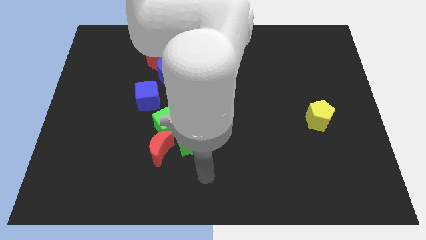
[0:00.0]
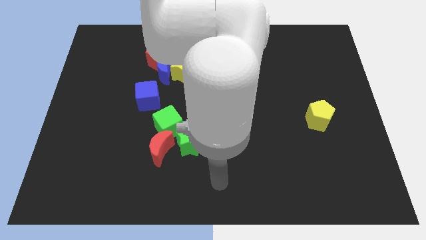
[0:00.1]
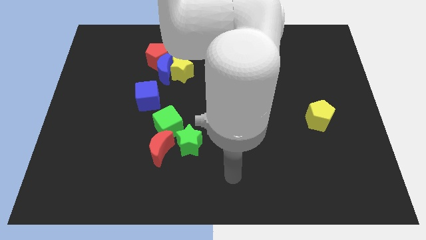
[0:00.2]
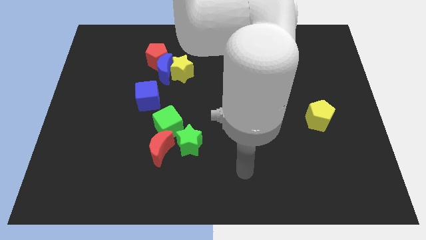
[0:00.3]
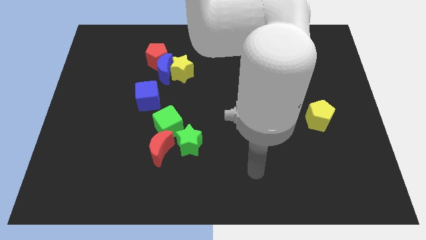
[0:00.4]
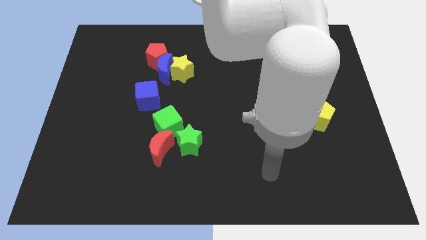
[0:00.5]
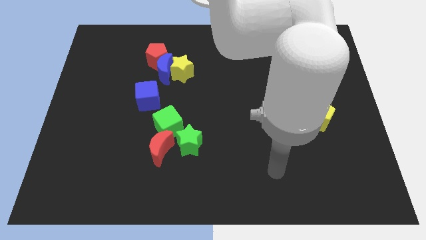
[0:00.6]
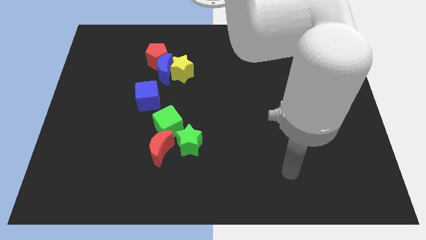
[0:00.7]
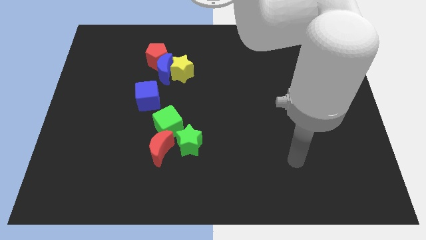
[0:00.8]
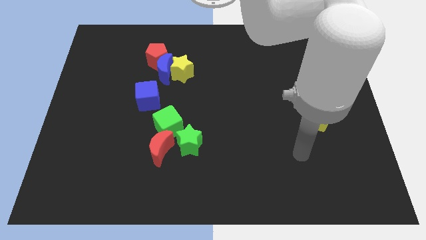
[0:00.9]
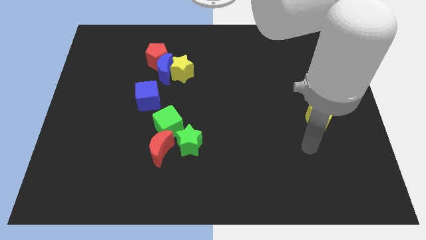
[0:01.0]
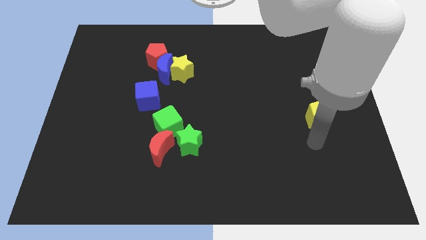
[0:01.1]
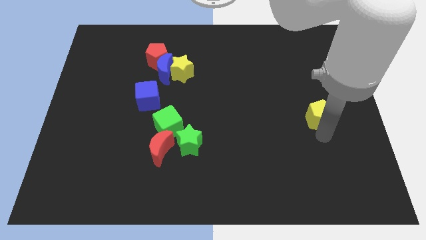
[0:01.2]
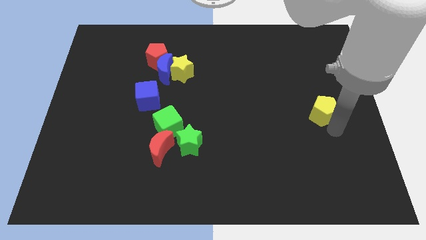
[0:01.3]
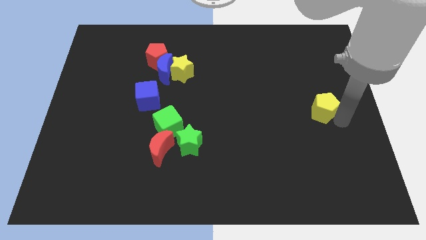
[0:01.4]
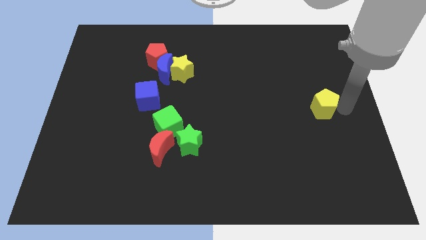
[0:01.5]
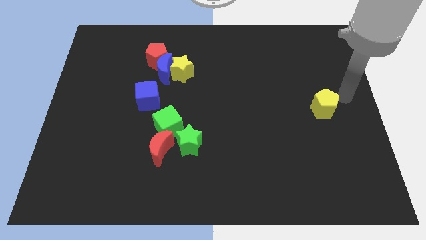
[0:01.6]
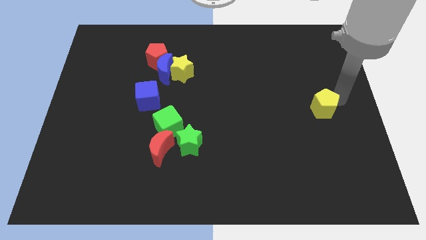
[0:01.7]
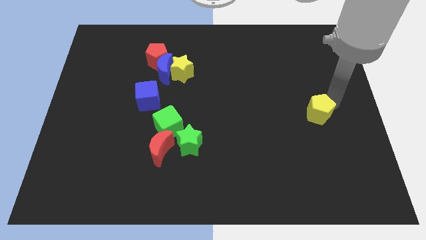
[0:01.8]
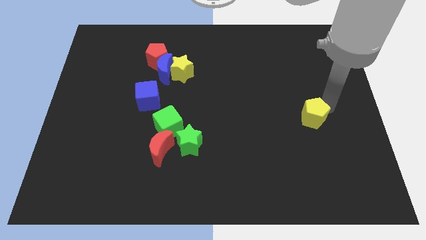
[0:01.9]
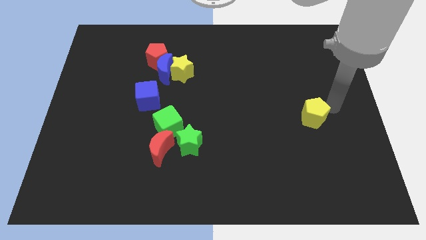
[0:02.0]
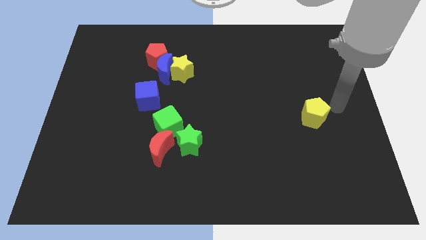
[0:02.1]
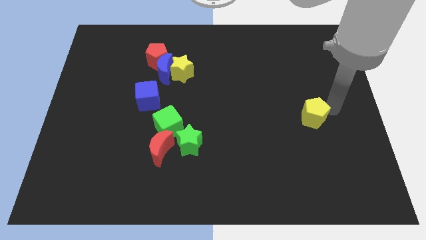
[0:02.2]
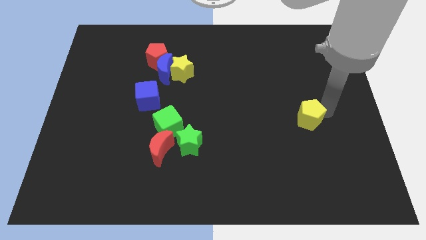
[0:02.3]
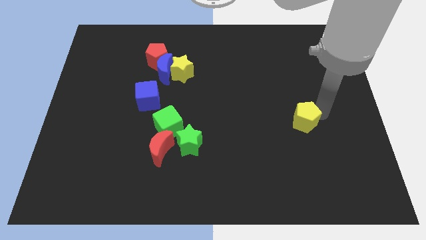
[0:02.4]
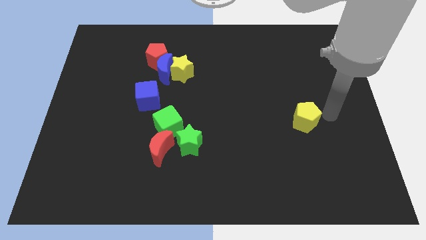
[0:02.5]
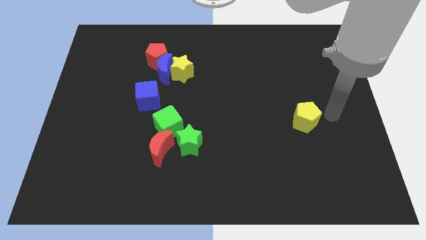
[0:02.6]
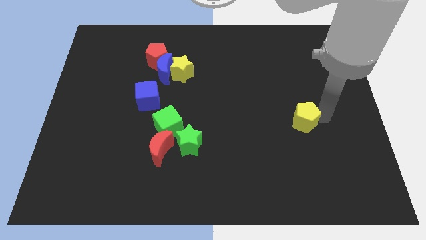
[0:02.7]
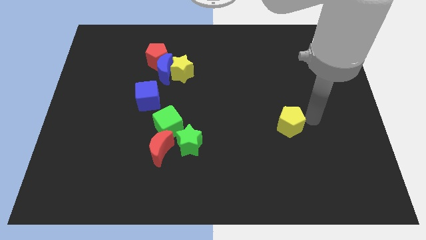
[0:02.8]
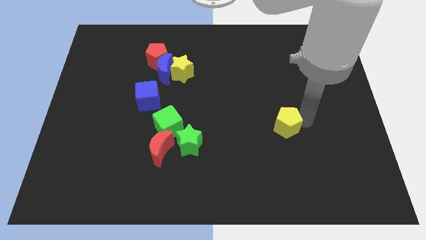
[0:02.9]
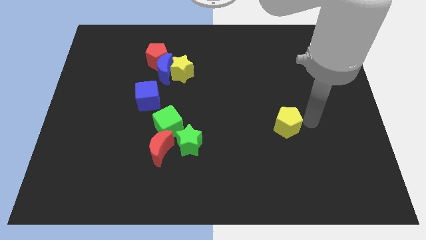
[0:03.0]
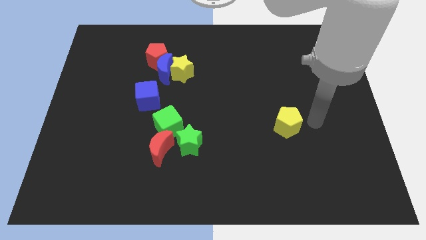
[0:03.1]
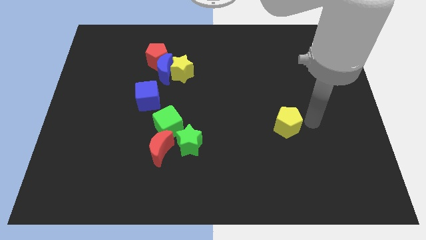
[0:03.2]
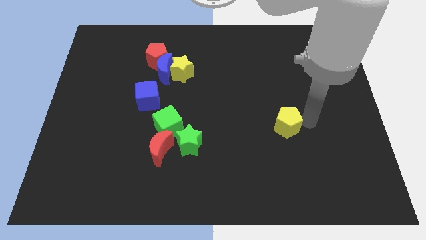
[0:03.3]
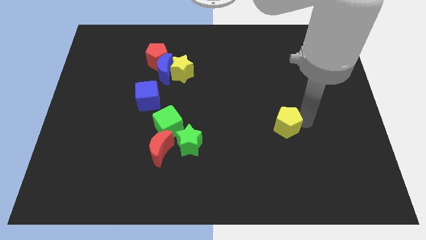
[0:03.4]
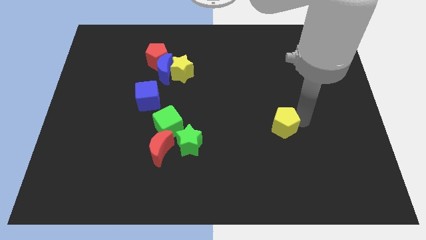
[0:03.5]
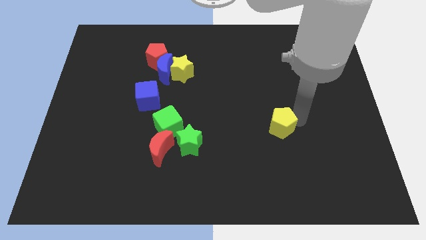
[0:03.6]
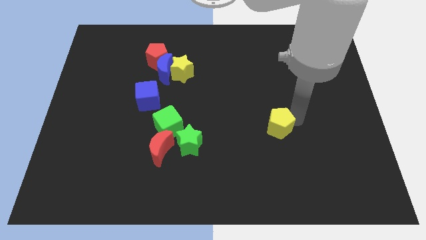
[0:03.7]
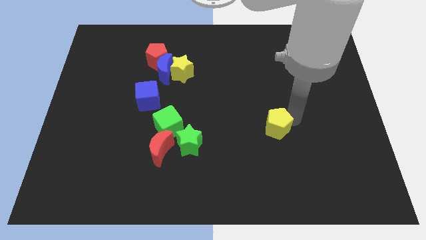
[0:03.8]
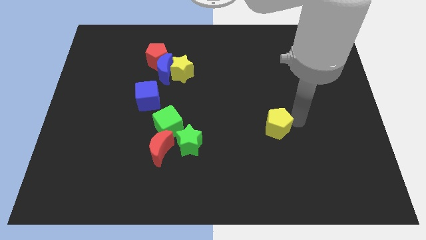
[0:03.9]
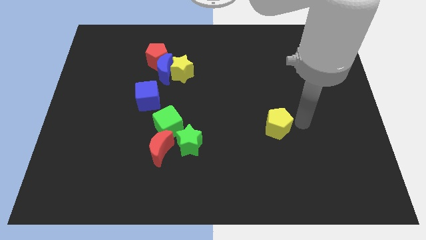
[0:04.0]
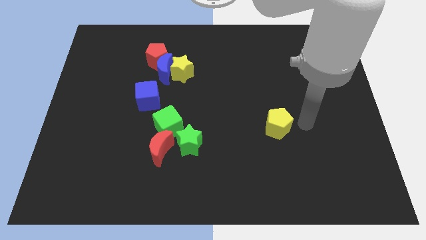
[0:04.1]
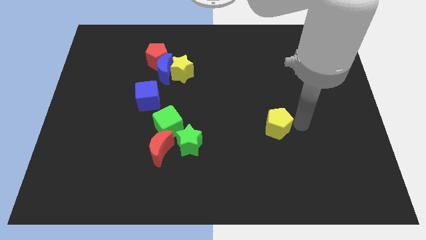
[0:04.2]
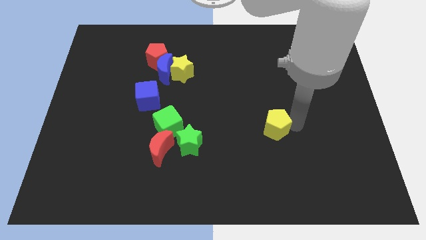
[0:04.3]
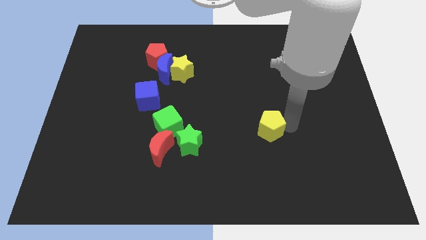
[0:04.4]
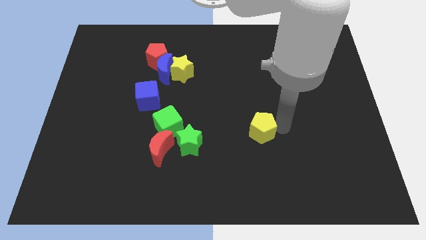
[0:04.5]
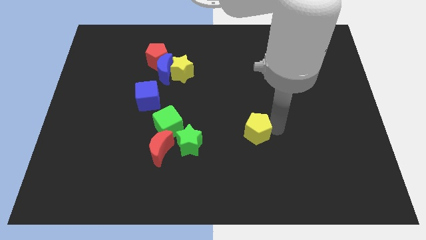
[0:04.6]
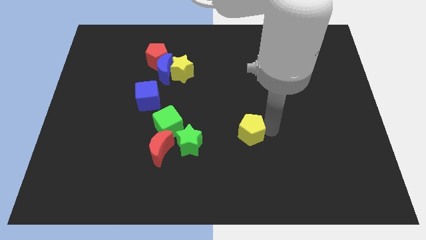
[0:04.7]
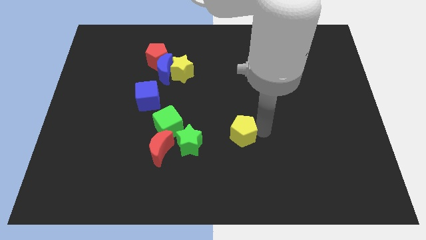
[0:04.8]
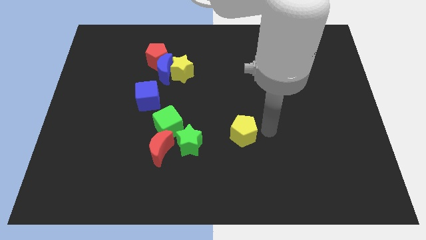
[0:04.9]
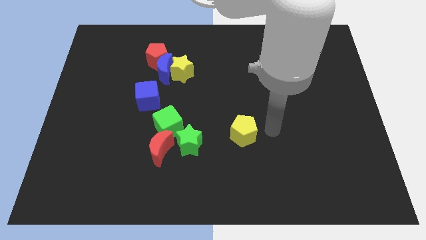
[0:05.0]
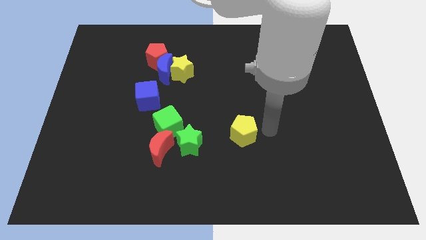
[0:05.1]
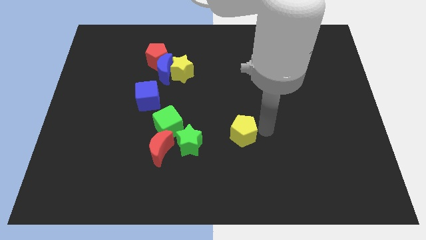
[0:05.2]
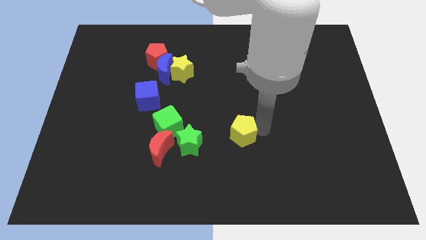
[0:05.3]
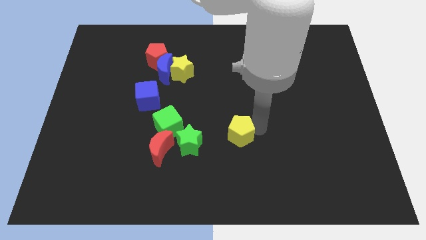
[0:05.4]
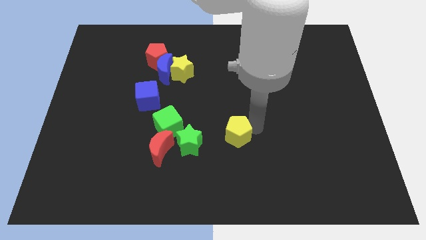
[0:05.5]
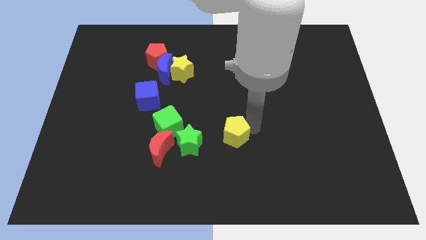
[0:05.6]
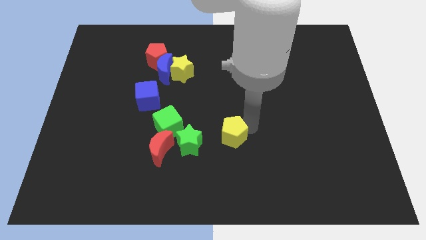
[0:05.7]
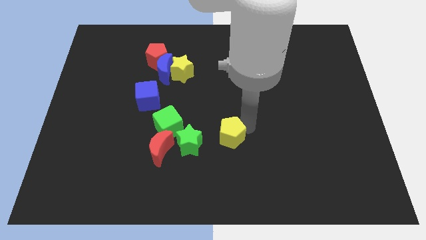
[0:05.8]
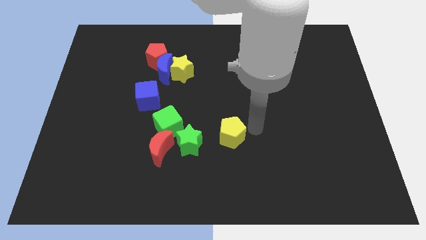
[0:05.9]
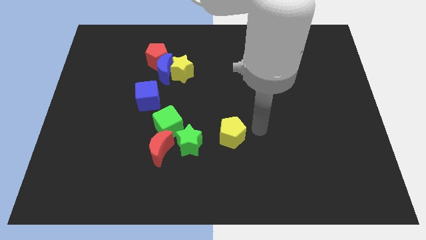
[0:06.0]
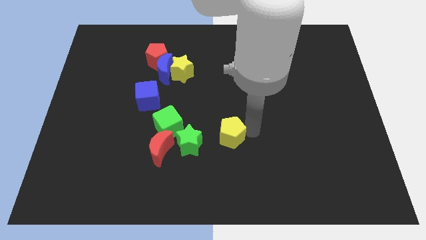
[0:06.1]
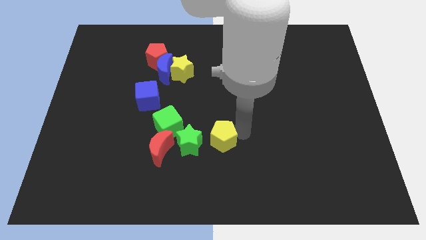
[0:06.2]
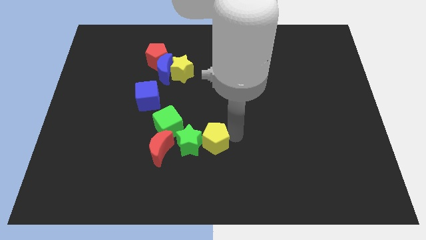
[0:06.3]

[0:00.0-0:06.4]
put the yellow pentagon towards the green star

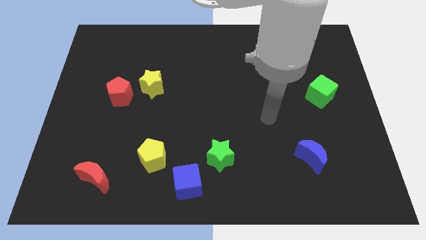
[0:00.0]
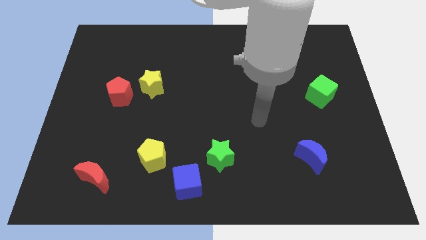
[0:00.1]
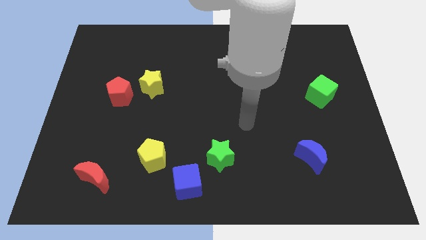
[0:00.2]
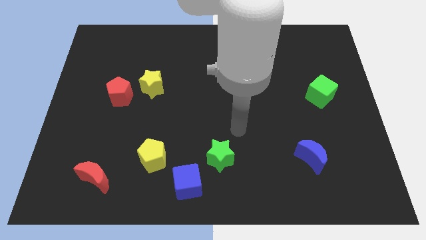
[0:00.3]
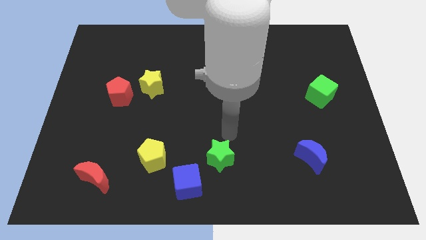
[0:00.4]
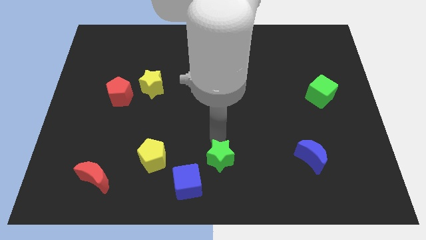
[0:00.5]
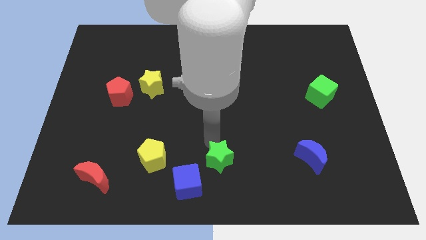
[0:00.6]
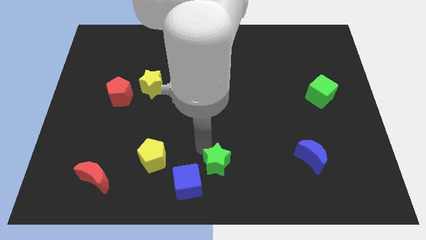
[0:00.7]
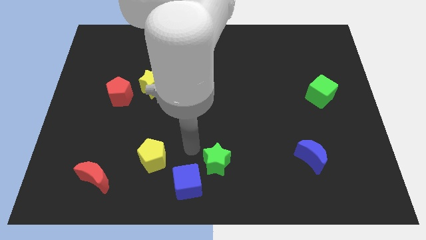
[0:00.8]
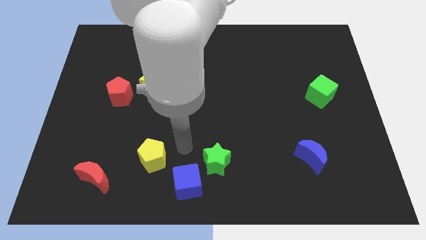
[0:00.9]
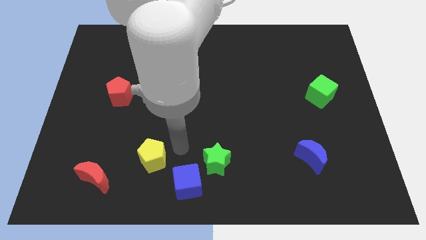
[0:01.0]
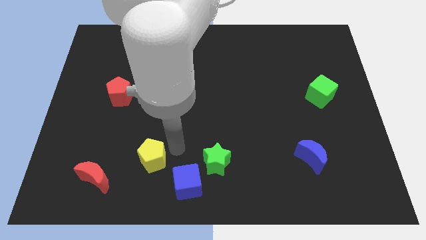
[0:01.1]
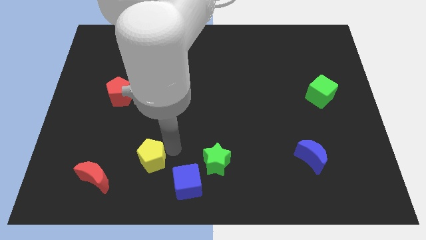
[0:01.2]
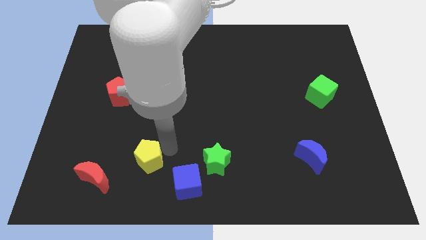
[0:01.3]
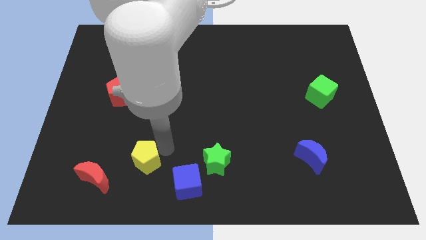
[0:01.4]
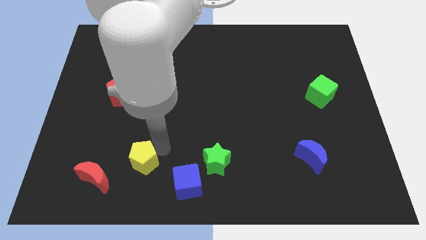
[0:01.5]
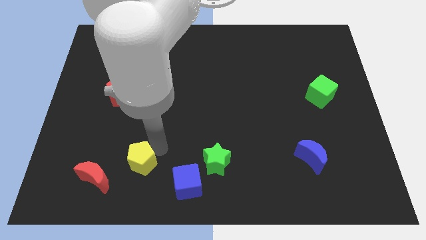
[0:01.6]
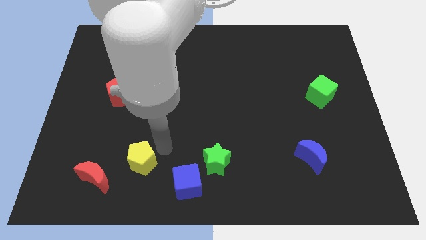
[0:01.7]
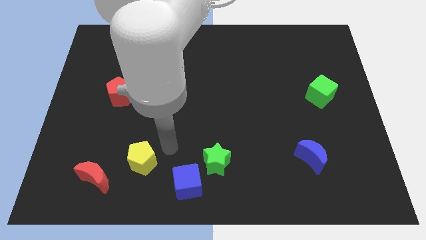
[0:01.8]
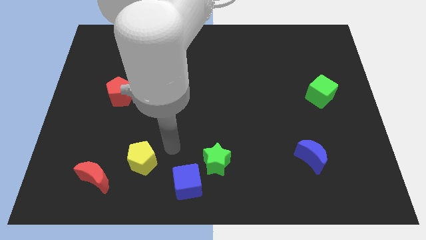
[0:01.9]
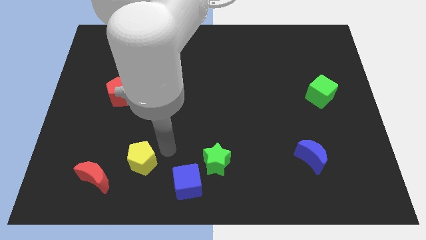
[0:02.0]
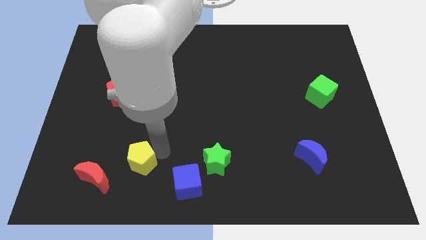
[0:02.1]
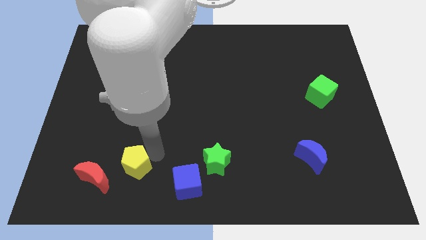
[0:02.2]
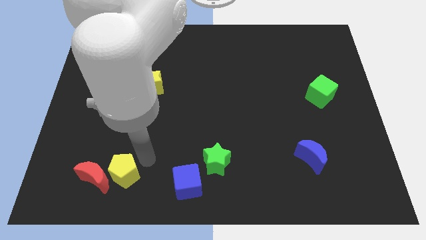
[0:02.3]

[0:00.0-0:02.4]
put the yellow pentagon close to the red moon
